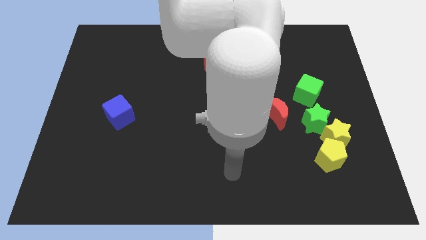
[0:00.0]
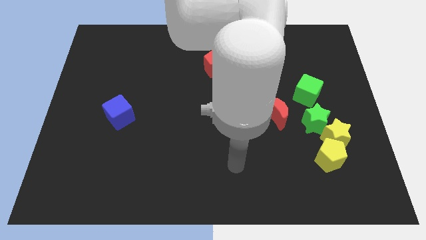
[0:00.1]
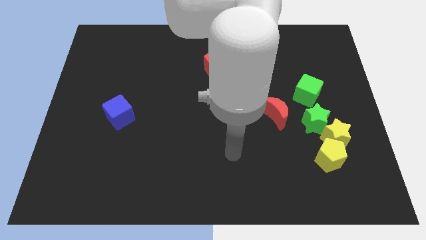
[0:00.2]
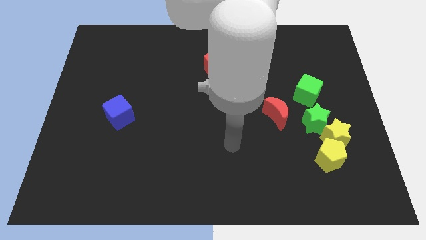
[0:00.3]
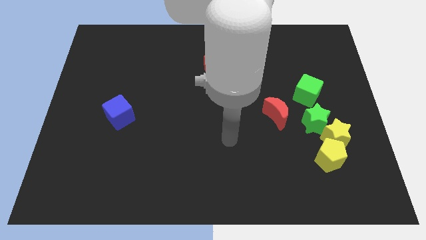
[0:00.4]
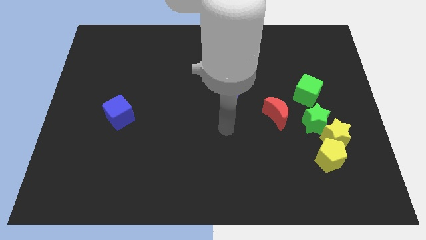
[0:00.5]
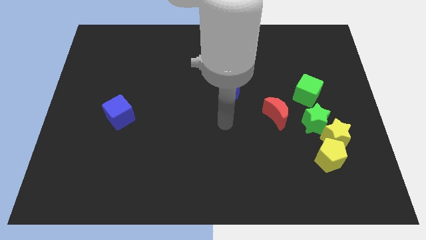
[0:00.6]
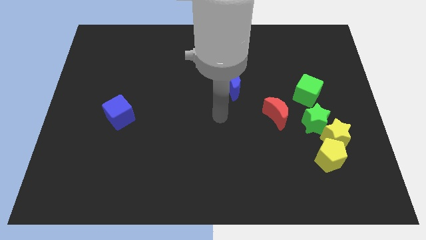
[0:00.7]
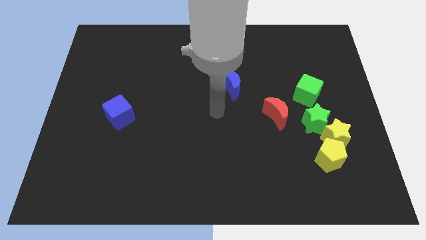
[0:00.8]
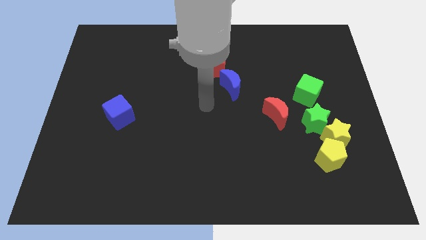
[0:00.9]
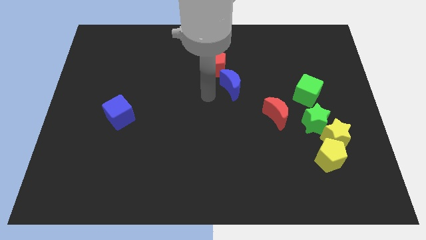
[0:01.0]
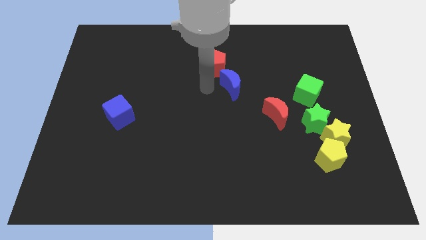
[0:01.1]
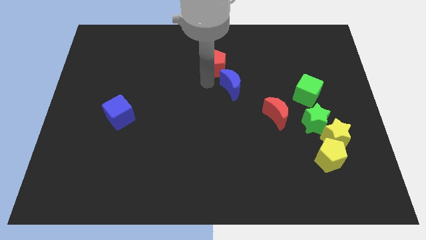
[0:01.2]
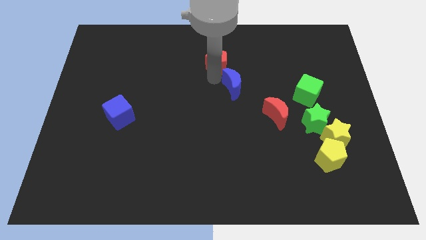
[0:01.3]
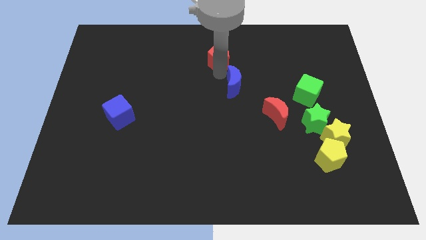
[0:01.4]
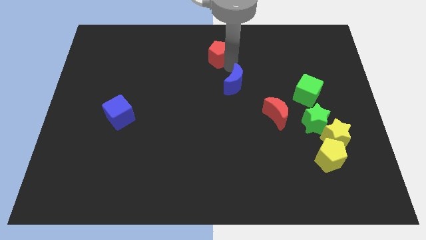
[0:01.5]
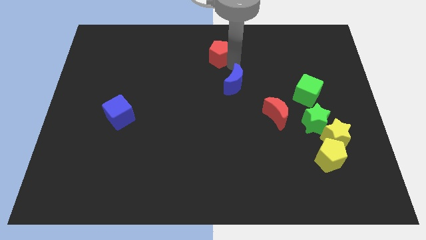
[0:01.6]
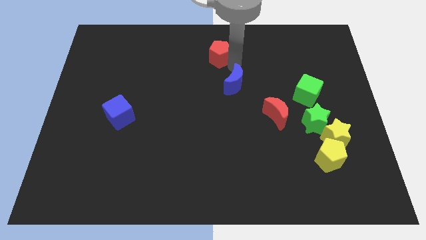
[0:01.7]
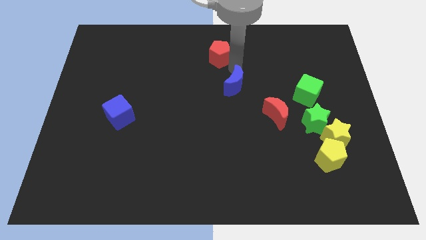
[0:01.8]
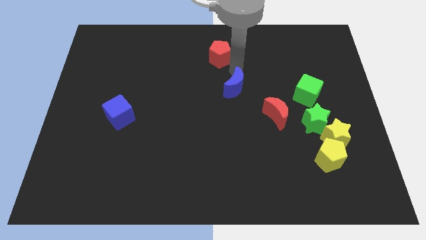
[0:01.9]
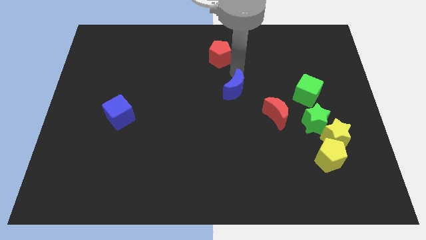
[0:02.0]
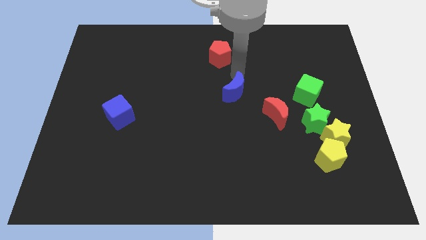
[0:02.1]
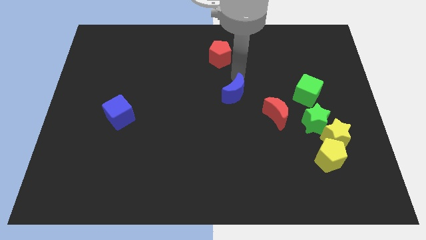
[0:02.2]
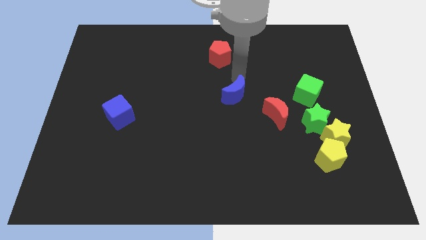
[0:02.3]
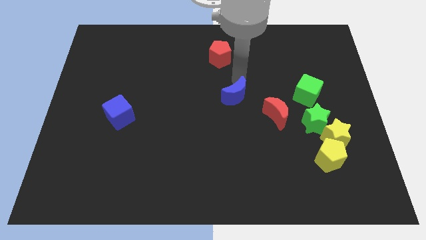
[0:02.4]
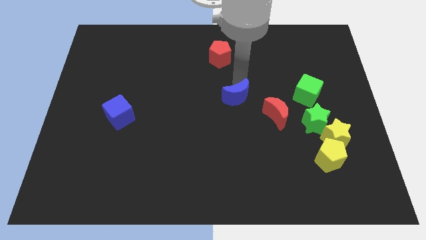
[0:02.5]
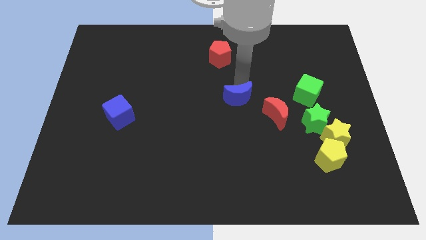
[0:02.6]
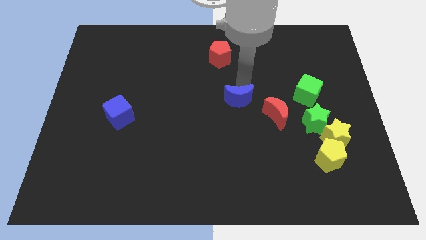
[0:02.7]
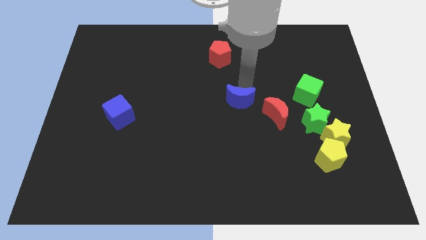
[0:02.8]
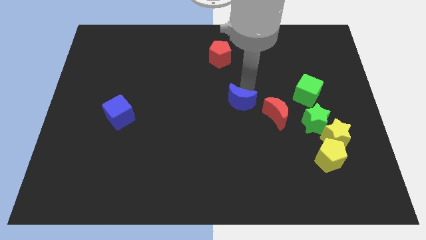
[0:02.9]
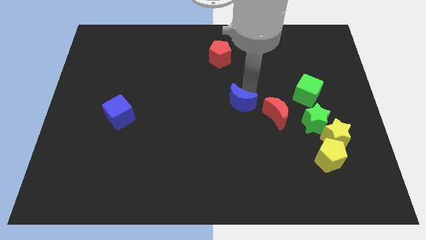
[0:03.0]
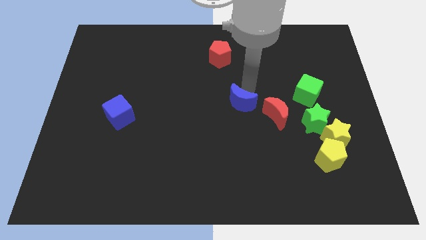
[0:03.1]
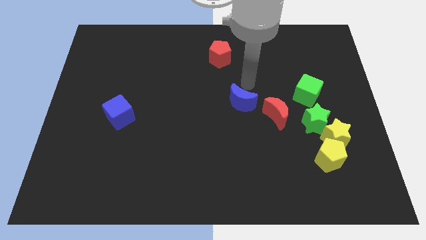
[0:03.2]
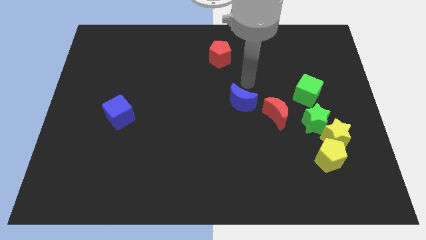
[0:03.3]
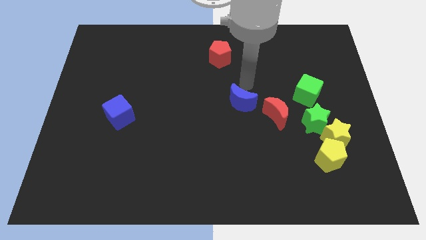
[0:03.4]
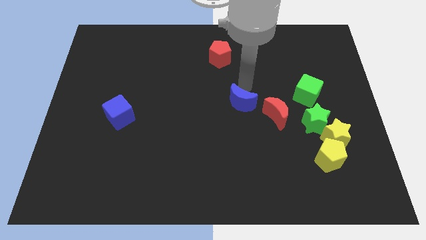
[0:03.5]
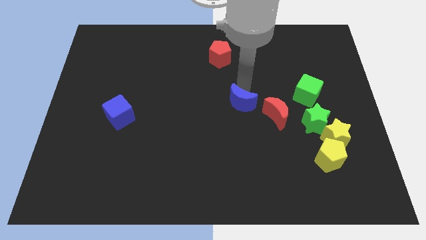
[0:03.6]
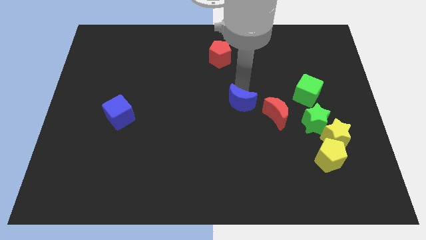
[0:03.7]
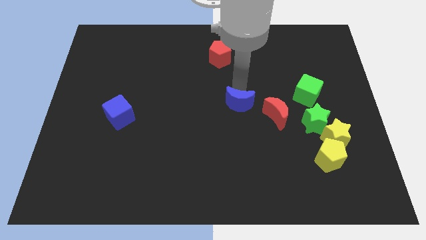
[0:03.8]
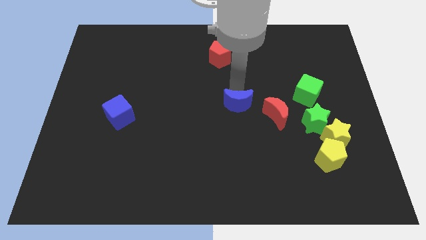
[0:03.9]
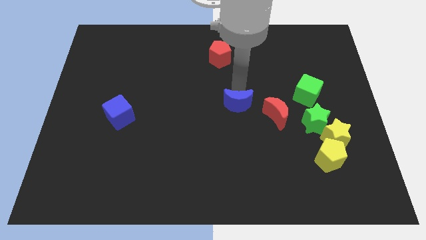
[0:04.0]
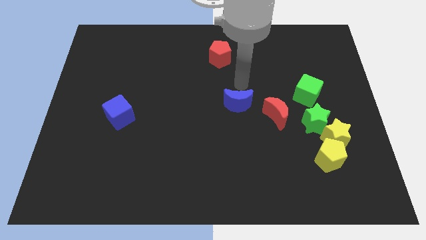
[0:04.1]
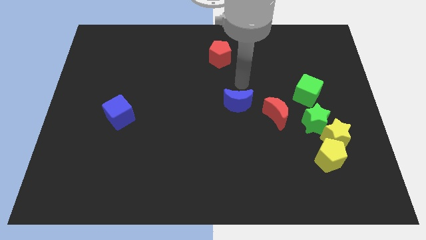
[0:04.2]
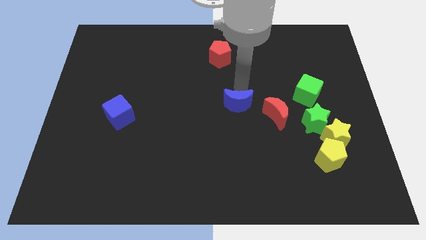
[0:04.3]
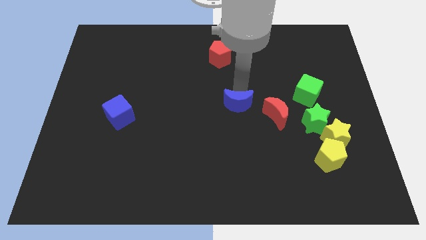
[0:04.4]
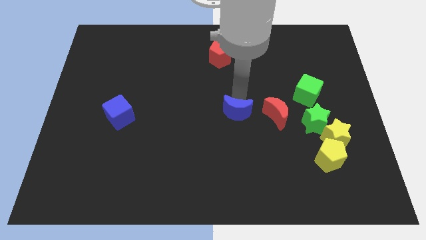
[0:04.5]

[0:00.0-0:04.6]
slide the blue moon slightly down

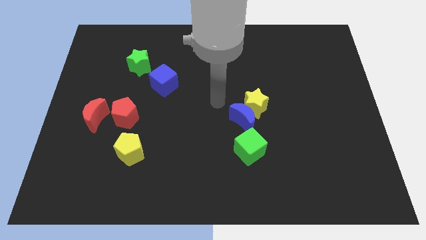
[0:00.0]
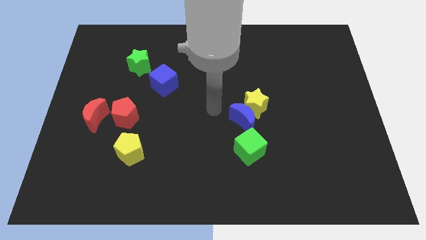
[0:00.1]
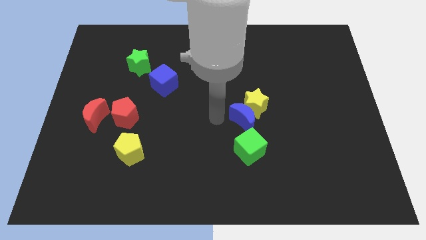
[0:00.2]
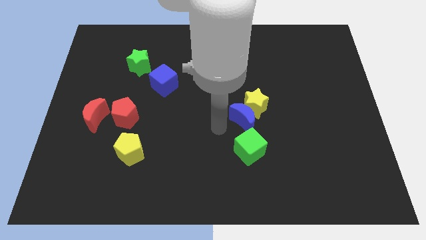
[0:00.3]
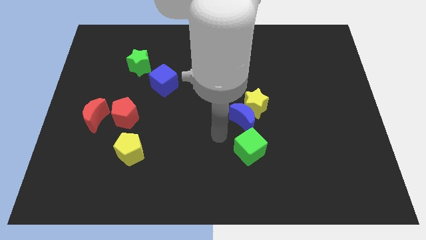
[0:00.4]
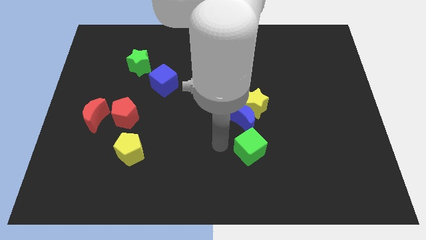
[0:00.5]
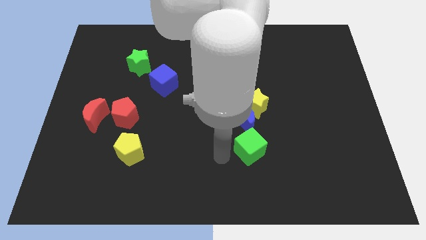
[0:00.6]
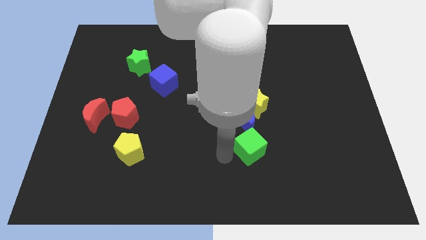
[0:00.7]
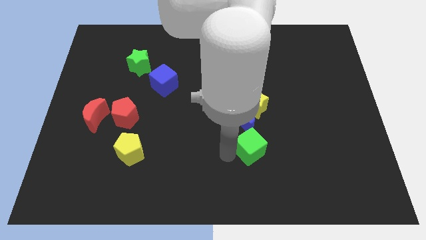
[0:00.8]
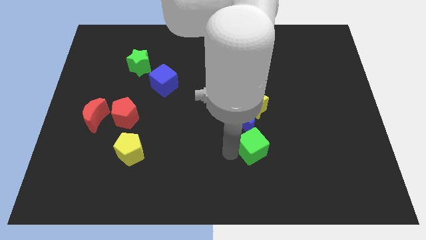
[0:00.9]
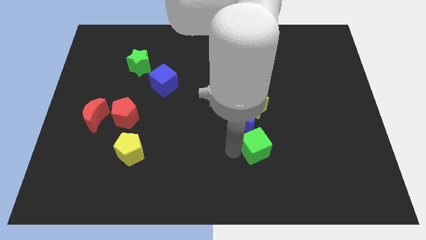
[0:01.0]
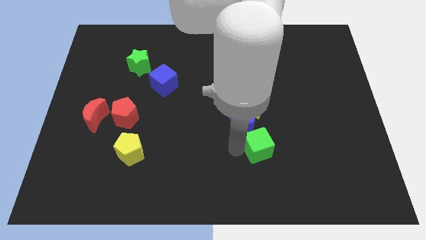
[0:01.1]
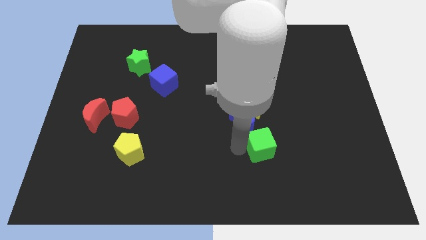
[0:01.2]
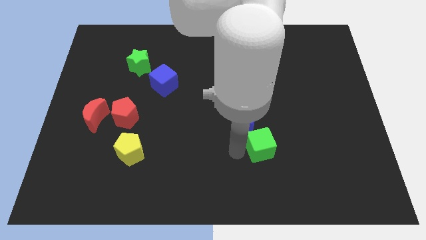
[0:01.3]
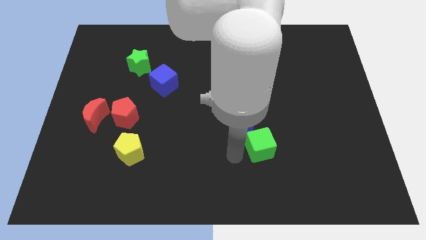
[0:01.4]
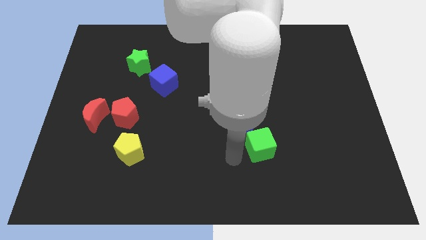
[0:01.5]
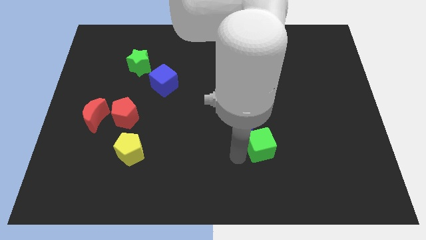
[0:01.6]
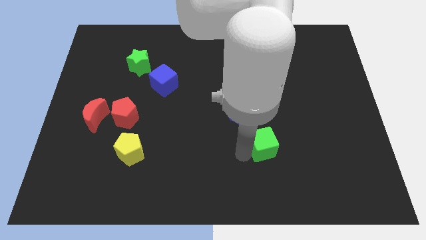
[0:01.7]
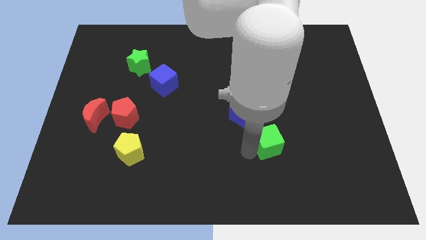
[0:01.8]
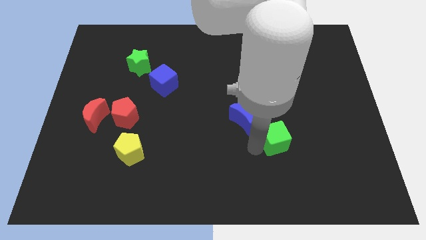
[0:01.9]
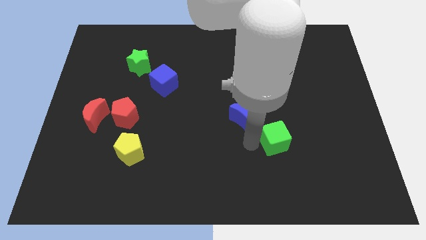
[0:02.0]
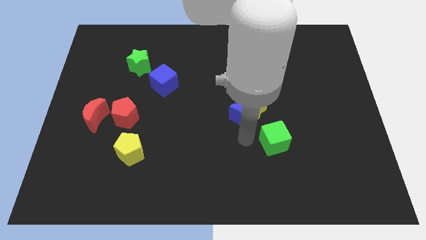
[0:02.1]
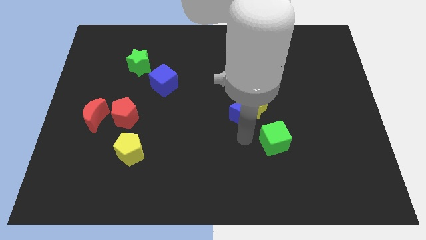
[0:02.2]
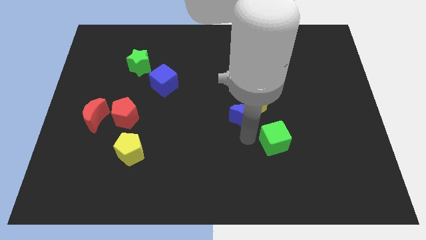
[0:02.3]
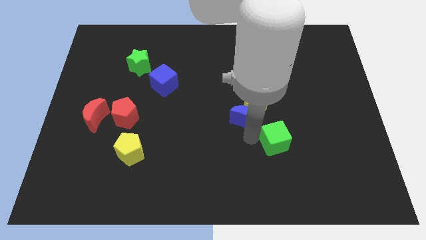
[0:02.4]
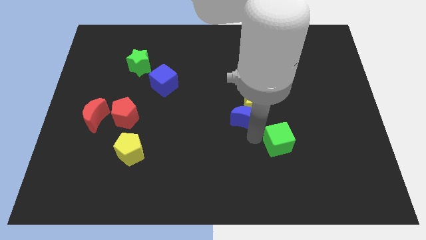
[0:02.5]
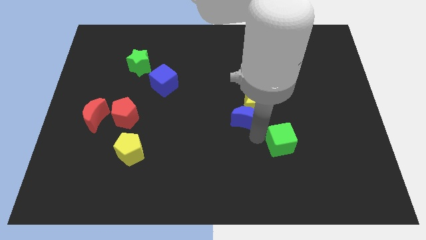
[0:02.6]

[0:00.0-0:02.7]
push the green cube right a little

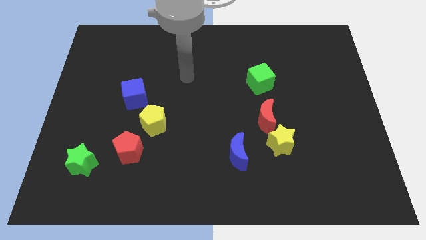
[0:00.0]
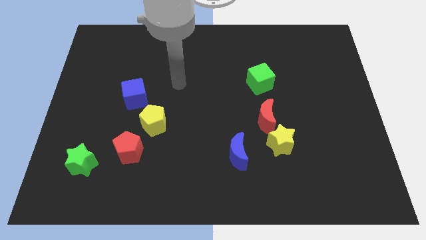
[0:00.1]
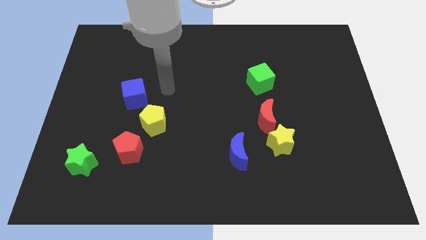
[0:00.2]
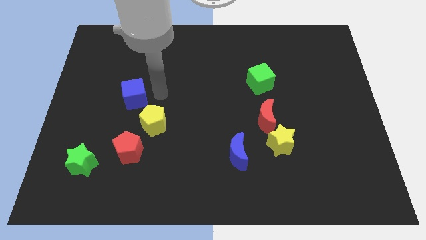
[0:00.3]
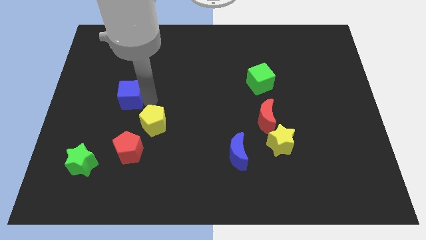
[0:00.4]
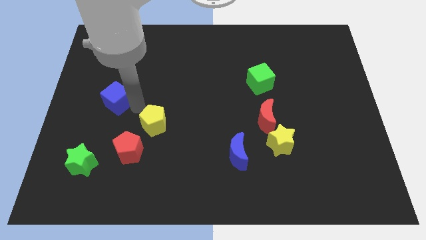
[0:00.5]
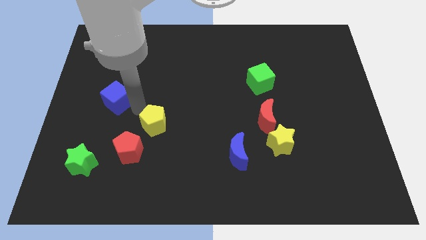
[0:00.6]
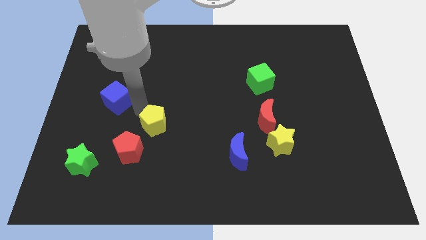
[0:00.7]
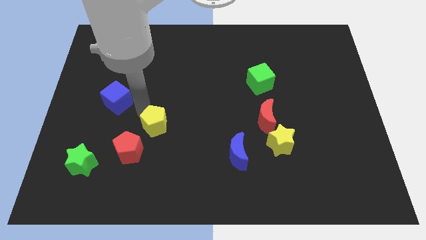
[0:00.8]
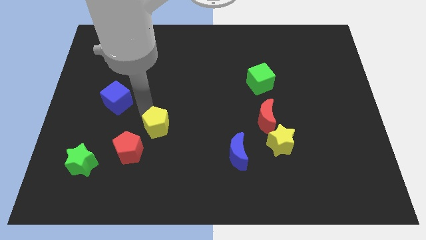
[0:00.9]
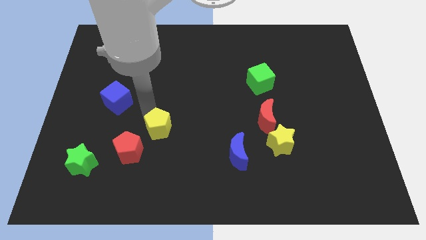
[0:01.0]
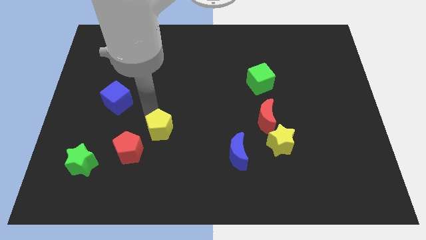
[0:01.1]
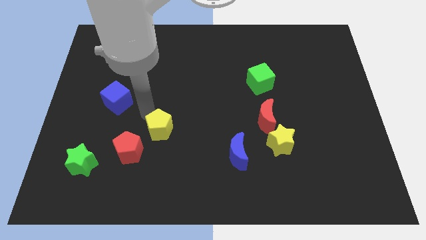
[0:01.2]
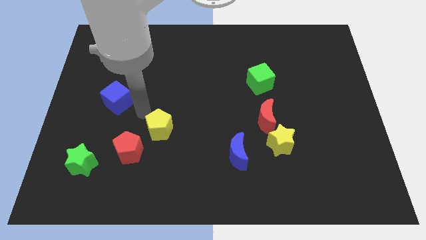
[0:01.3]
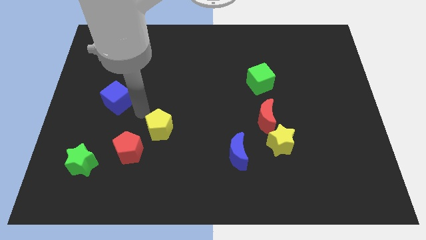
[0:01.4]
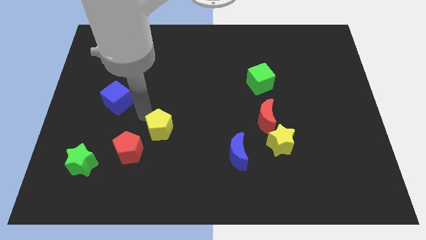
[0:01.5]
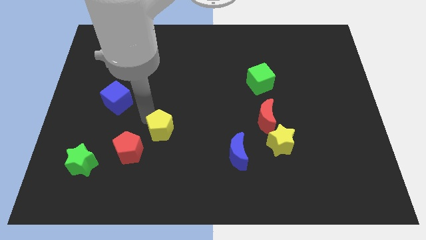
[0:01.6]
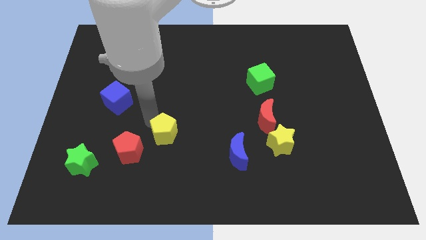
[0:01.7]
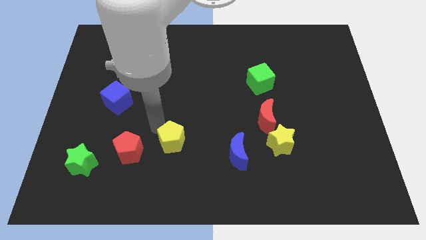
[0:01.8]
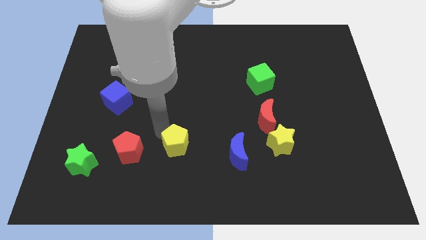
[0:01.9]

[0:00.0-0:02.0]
move the yellow pentagon down and then right a little
